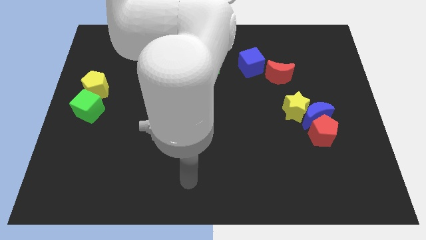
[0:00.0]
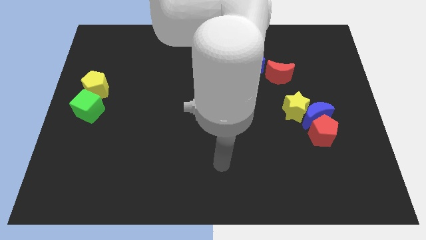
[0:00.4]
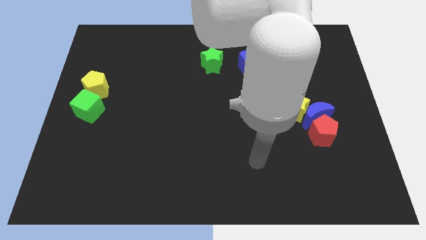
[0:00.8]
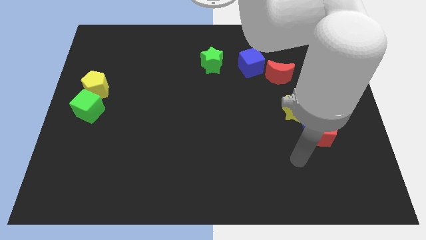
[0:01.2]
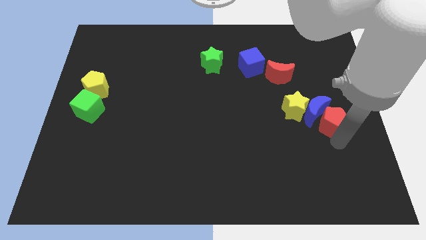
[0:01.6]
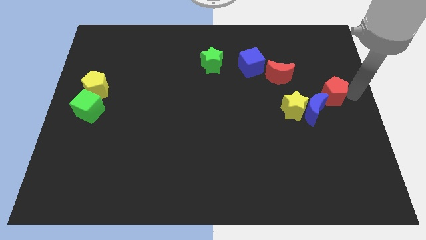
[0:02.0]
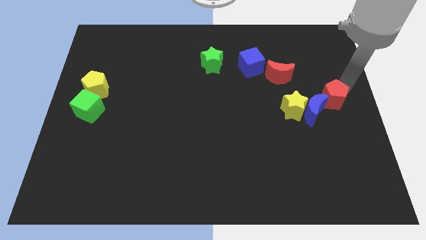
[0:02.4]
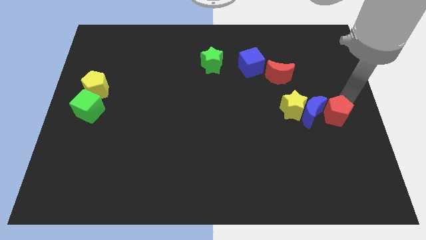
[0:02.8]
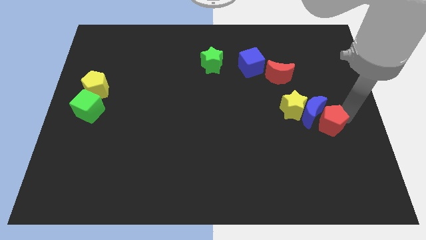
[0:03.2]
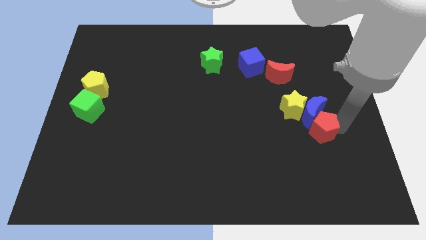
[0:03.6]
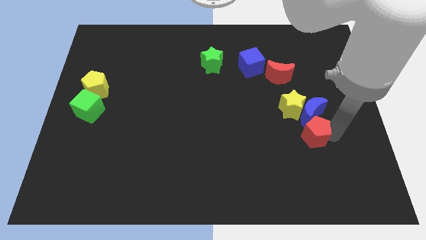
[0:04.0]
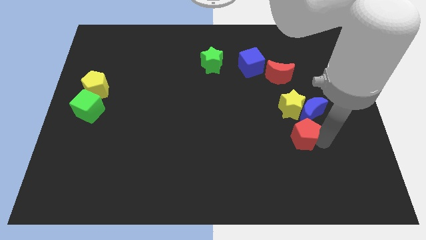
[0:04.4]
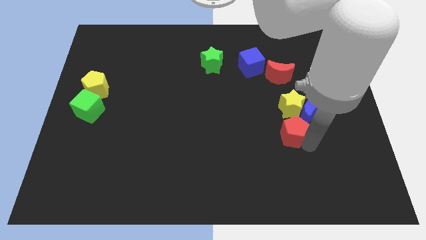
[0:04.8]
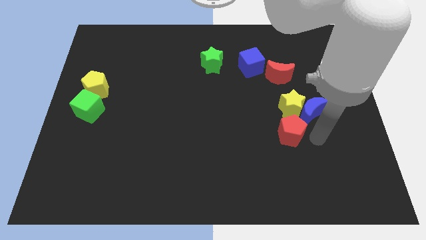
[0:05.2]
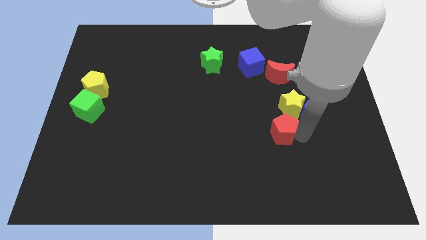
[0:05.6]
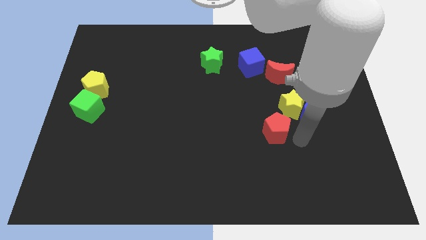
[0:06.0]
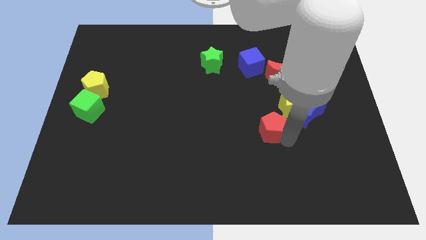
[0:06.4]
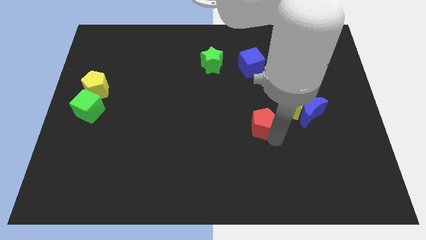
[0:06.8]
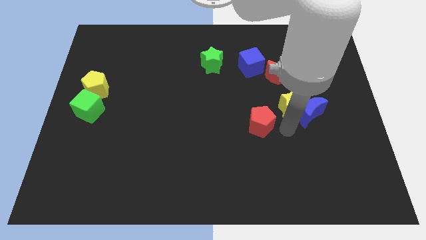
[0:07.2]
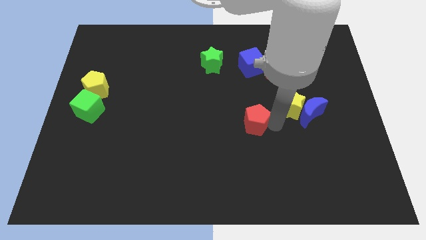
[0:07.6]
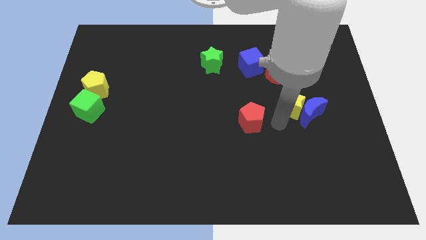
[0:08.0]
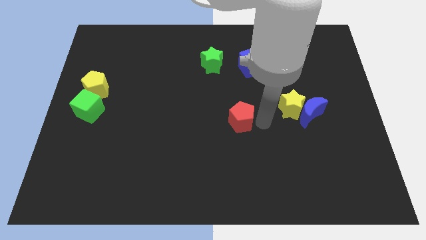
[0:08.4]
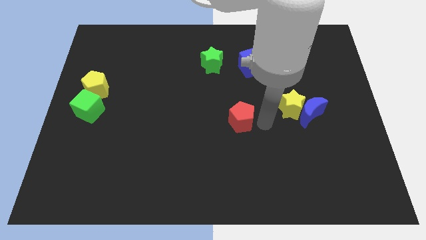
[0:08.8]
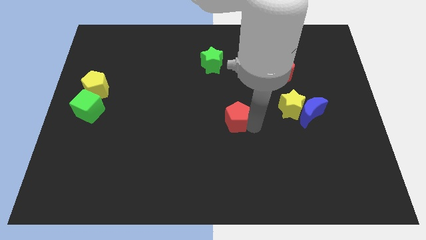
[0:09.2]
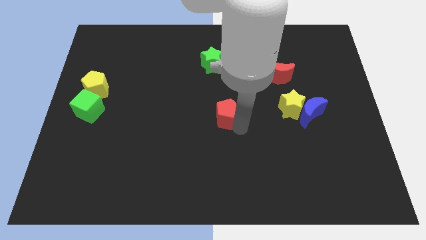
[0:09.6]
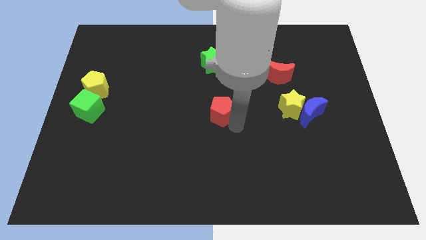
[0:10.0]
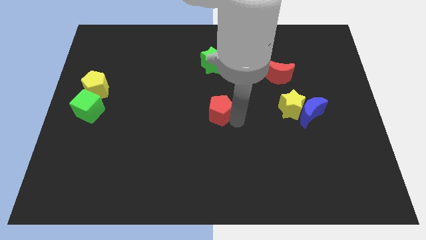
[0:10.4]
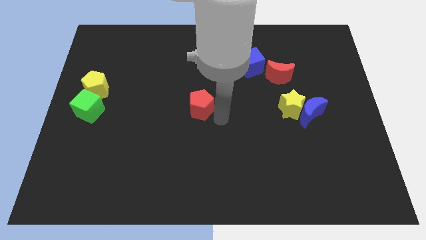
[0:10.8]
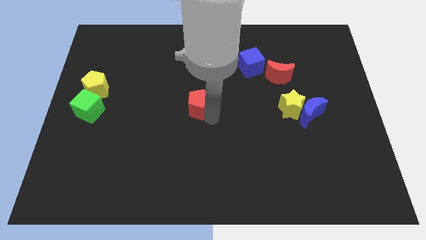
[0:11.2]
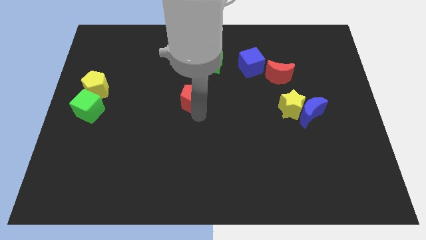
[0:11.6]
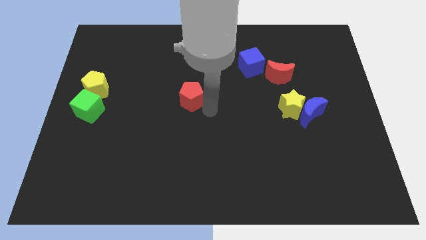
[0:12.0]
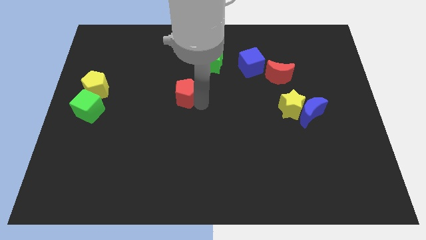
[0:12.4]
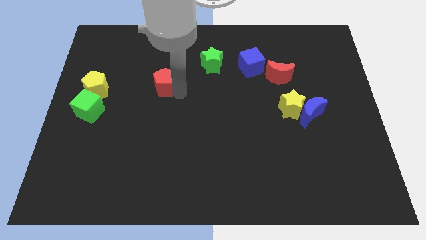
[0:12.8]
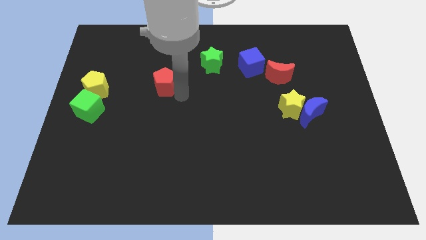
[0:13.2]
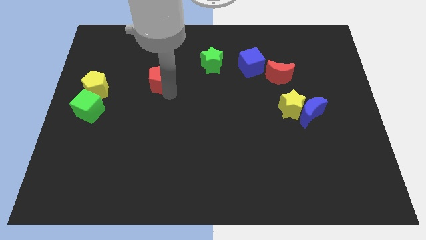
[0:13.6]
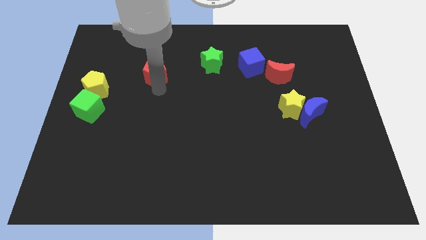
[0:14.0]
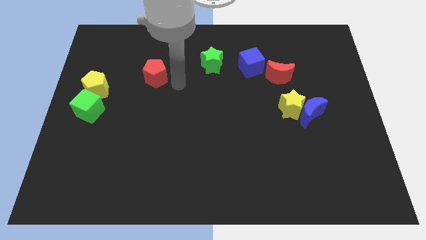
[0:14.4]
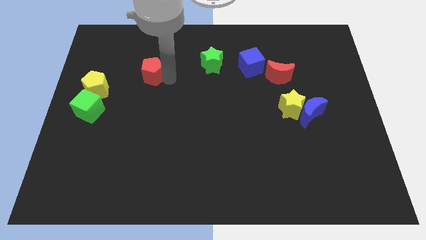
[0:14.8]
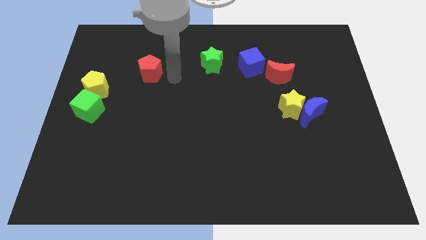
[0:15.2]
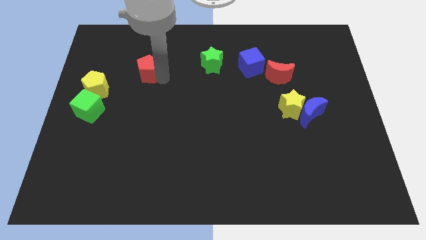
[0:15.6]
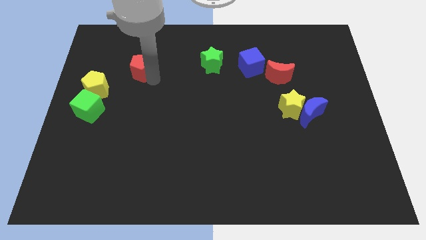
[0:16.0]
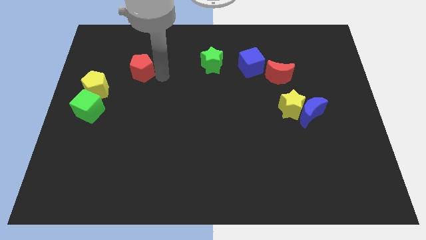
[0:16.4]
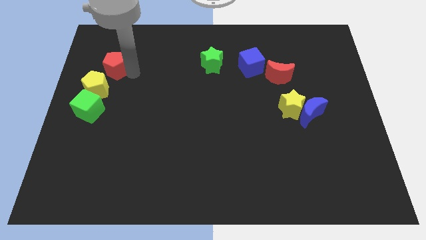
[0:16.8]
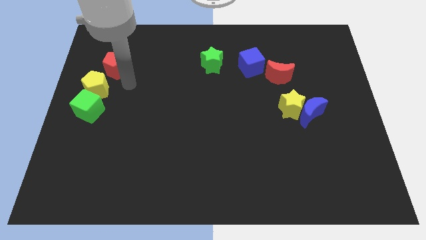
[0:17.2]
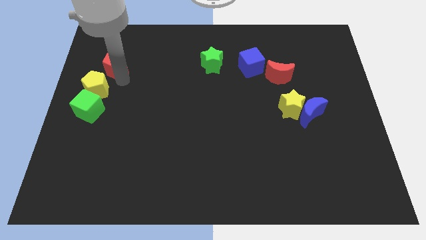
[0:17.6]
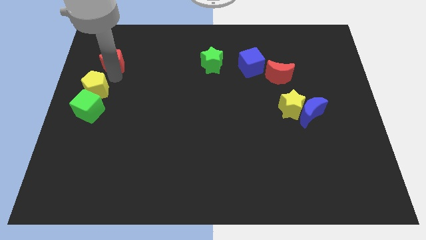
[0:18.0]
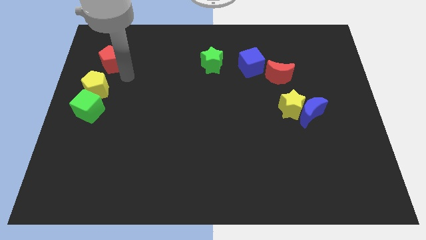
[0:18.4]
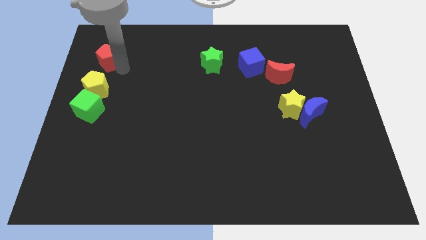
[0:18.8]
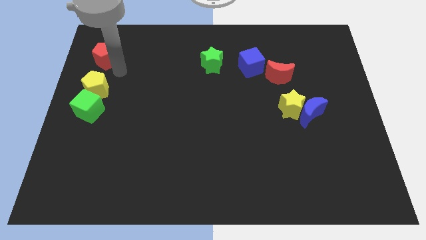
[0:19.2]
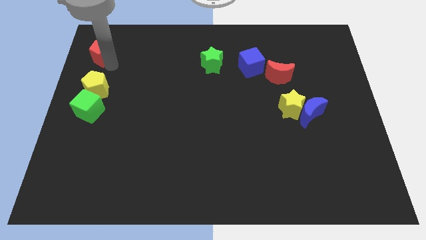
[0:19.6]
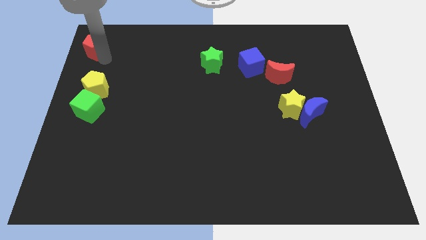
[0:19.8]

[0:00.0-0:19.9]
slide the red pentagon to the top left

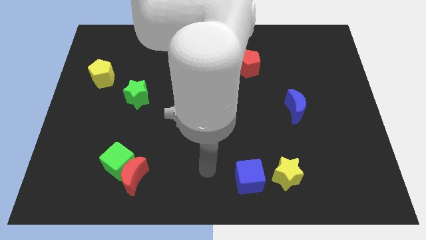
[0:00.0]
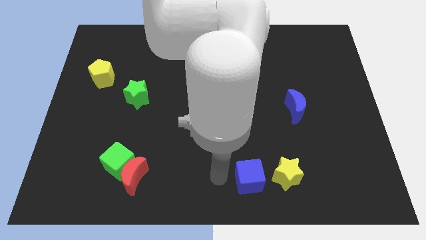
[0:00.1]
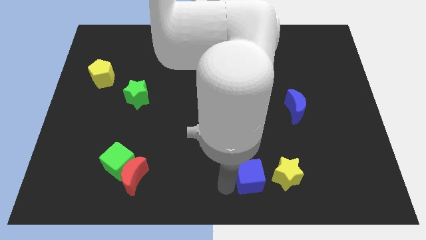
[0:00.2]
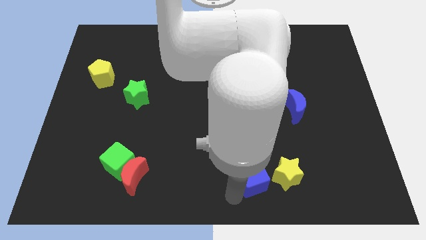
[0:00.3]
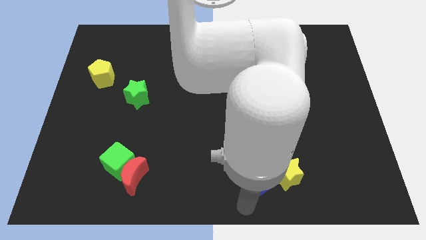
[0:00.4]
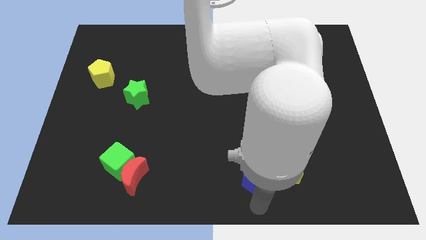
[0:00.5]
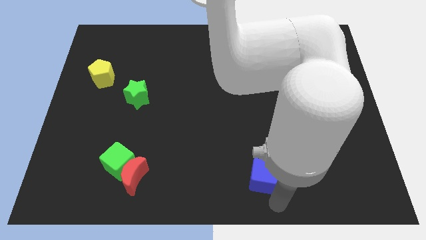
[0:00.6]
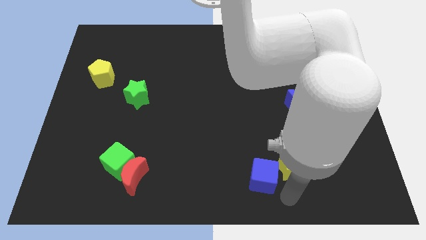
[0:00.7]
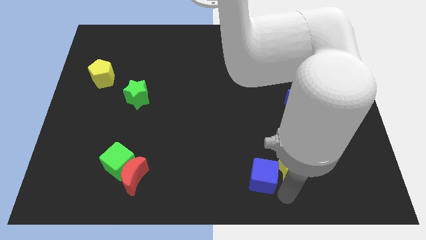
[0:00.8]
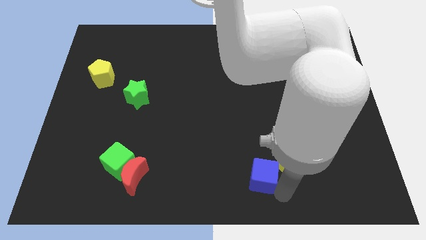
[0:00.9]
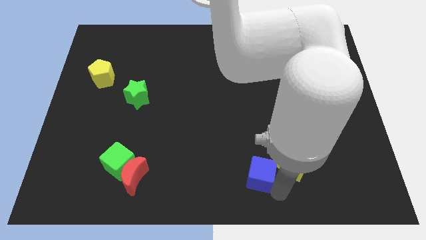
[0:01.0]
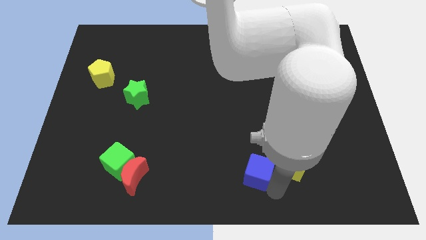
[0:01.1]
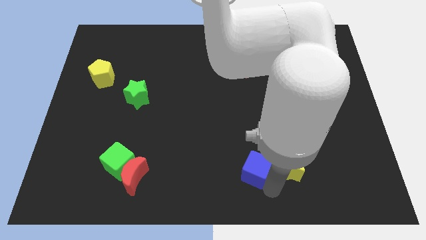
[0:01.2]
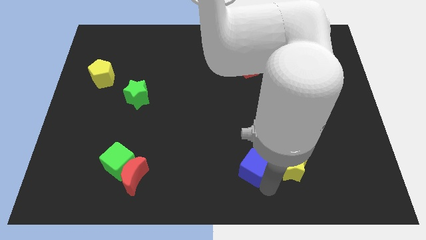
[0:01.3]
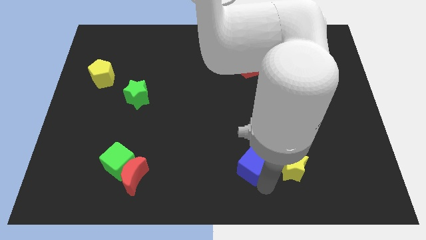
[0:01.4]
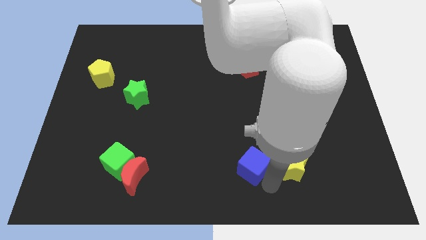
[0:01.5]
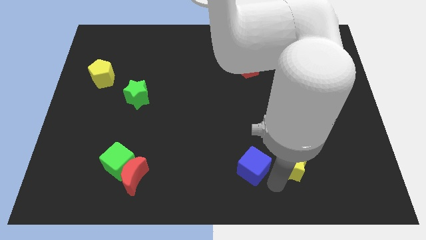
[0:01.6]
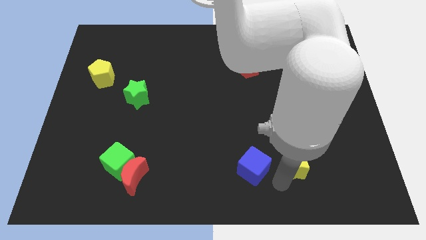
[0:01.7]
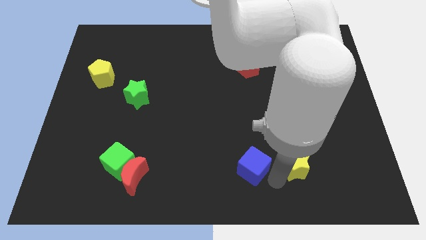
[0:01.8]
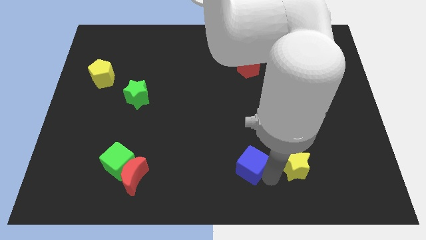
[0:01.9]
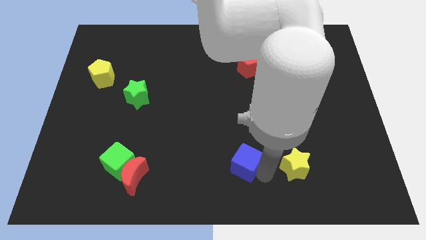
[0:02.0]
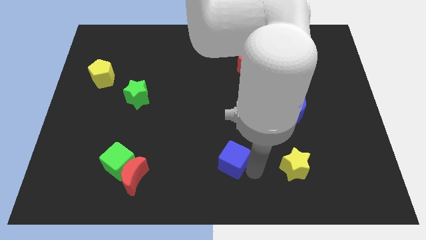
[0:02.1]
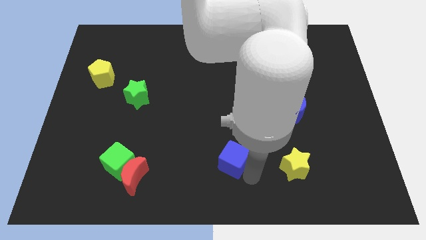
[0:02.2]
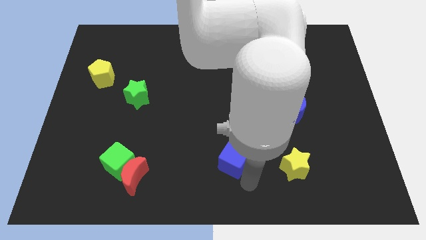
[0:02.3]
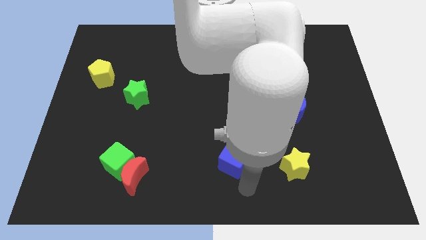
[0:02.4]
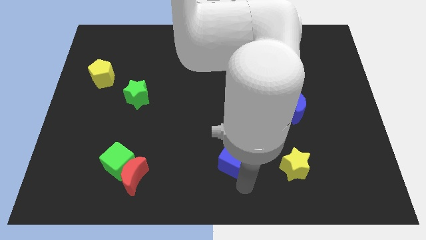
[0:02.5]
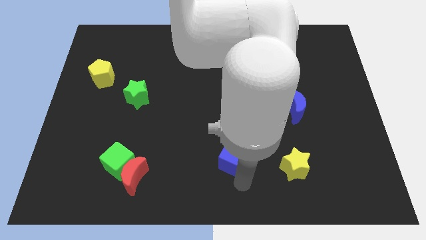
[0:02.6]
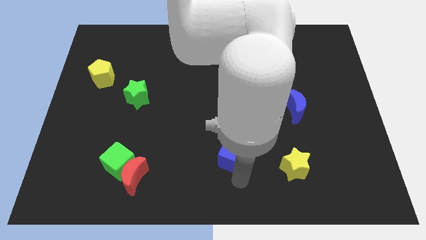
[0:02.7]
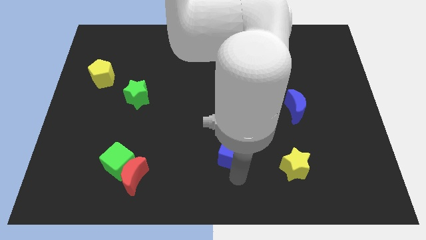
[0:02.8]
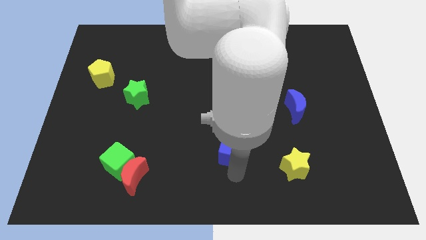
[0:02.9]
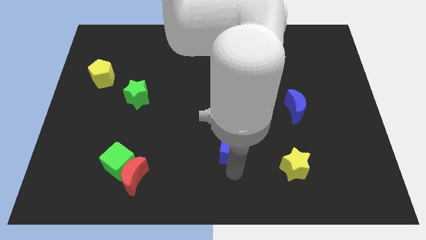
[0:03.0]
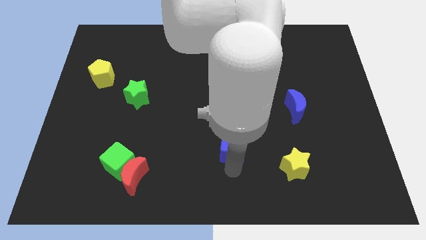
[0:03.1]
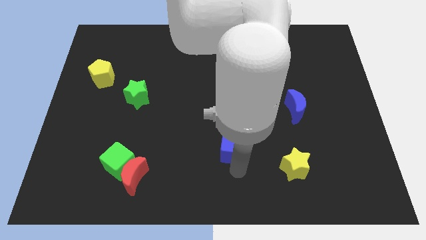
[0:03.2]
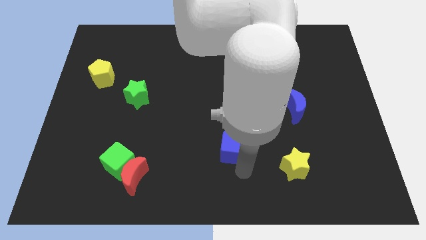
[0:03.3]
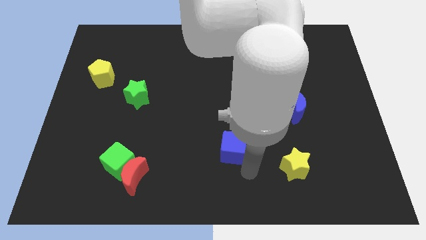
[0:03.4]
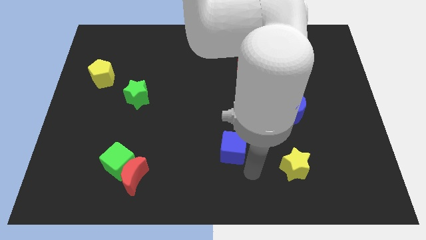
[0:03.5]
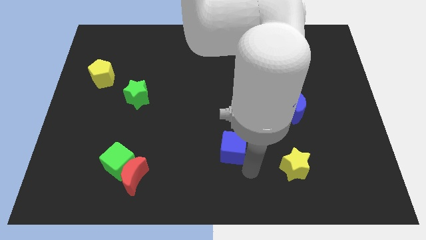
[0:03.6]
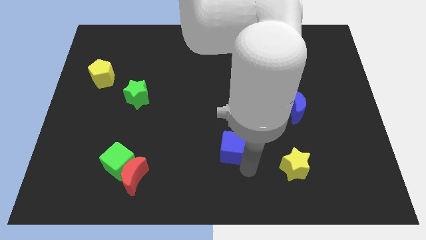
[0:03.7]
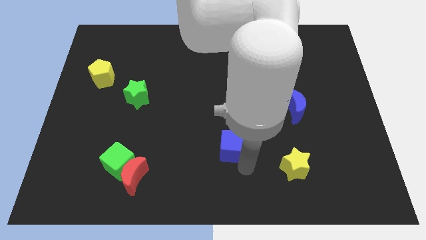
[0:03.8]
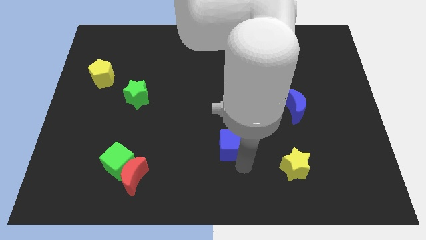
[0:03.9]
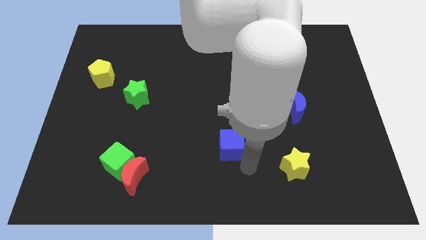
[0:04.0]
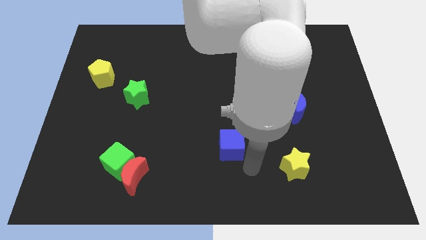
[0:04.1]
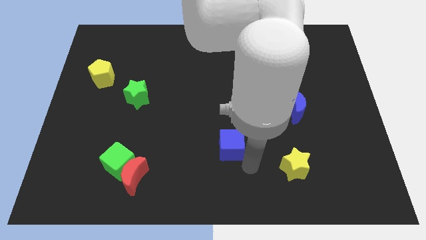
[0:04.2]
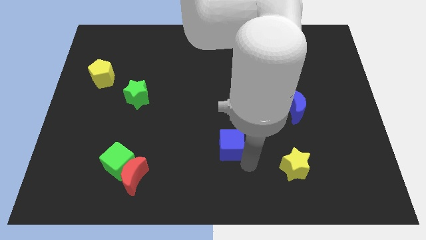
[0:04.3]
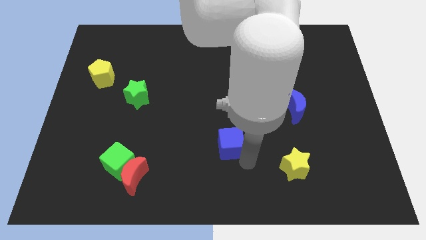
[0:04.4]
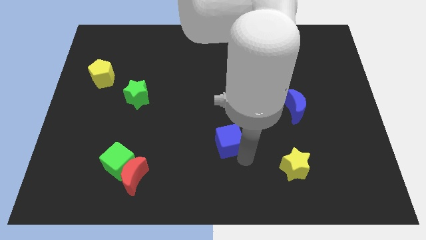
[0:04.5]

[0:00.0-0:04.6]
slide the blue cube to the center
